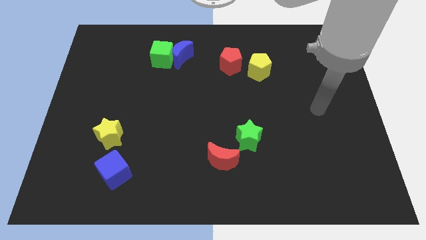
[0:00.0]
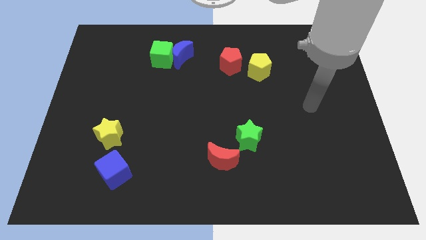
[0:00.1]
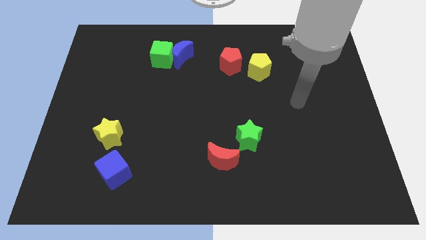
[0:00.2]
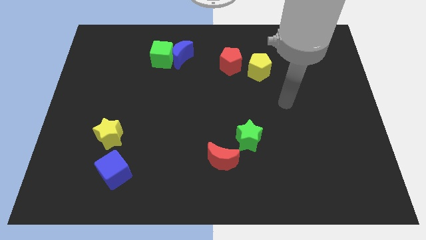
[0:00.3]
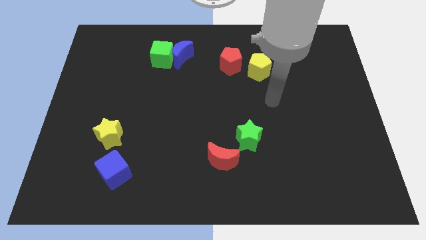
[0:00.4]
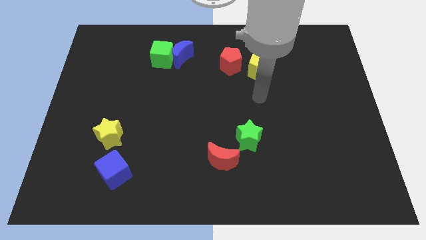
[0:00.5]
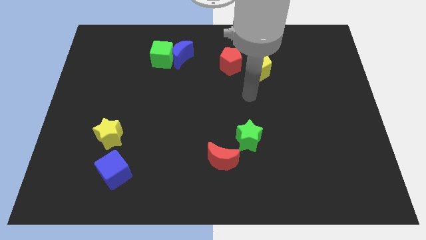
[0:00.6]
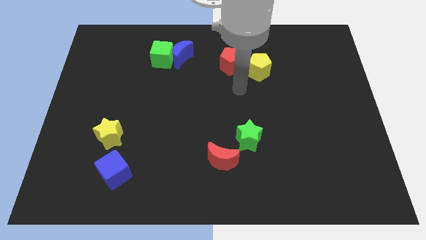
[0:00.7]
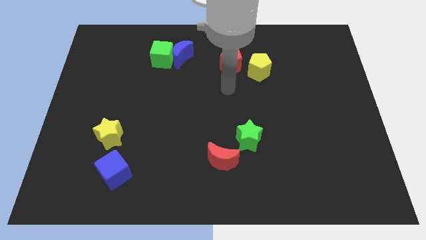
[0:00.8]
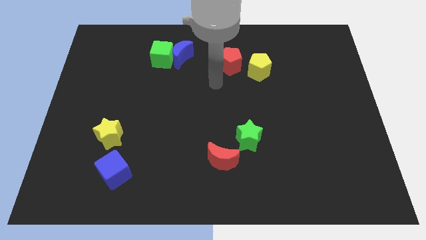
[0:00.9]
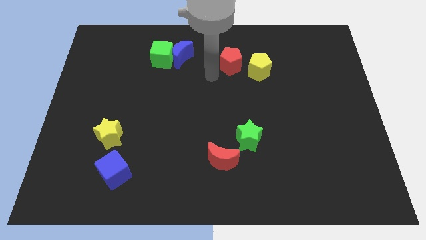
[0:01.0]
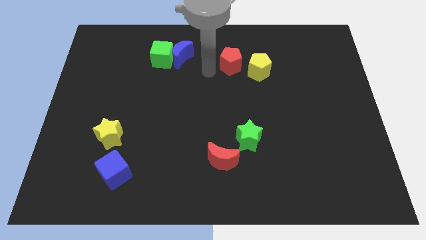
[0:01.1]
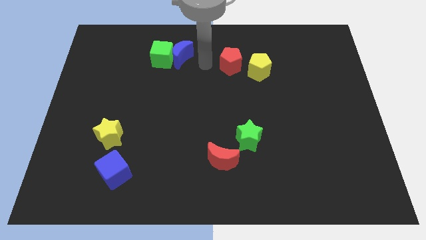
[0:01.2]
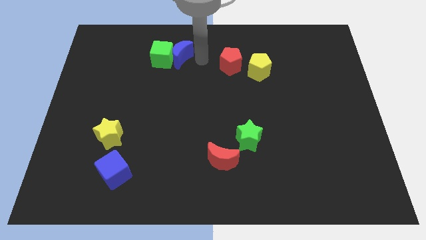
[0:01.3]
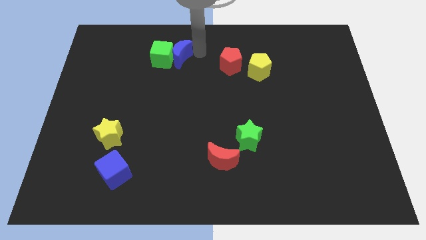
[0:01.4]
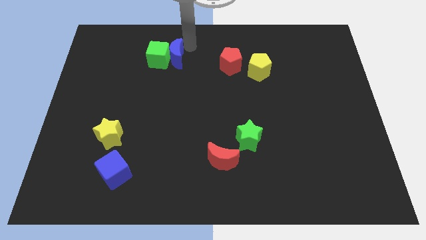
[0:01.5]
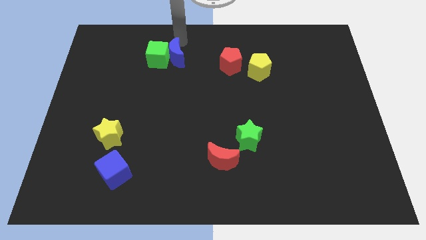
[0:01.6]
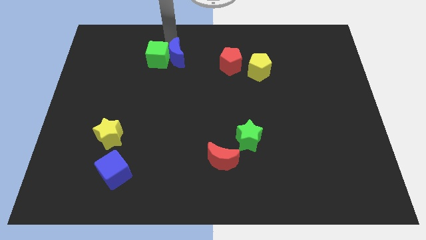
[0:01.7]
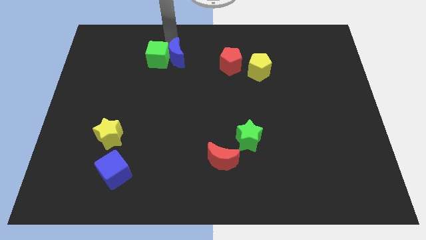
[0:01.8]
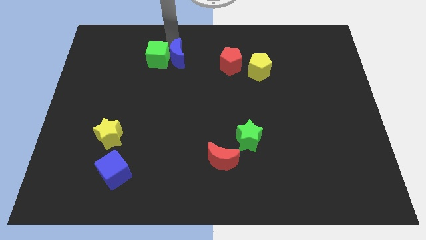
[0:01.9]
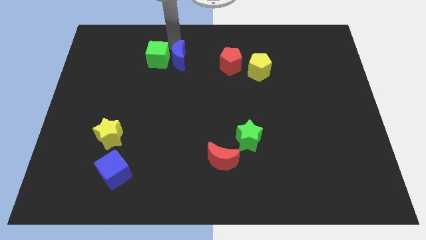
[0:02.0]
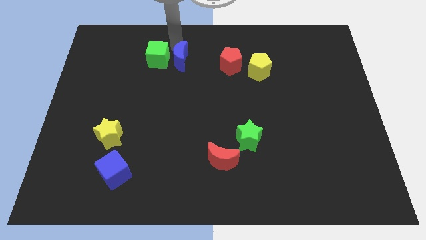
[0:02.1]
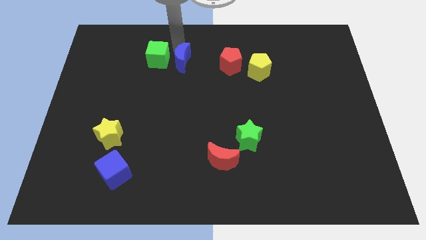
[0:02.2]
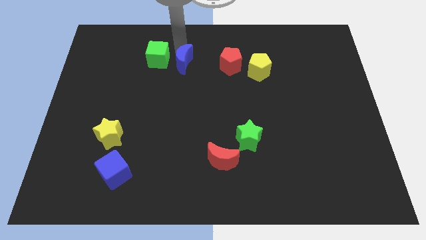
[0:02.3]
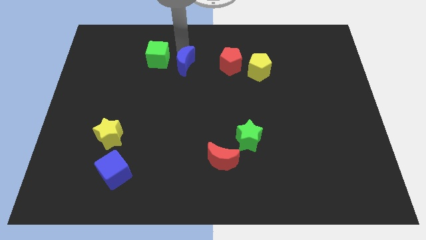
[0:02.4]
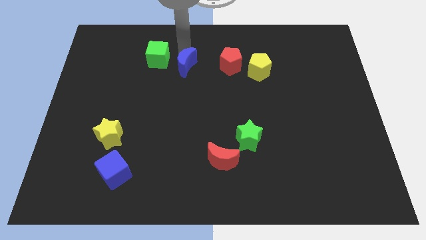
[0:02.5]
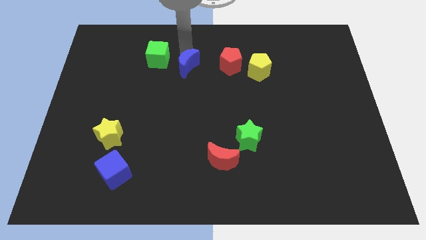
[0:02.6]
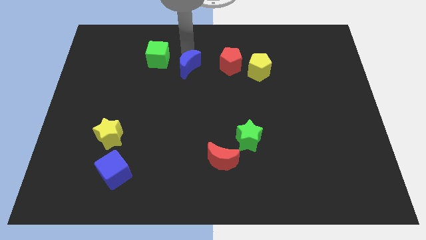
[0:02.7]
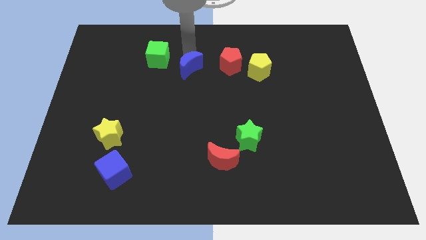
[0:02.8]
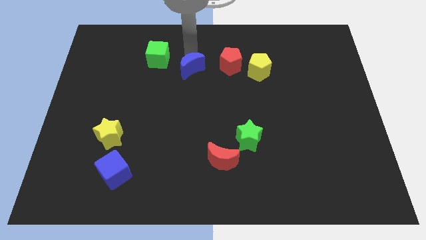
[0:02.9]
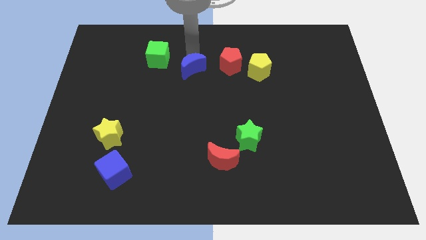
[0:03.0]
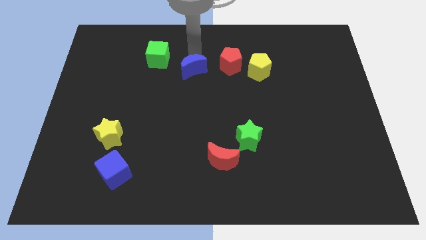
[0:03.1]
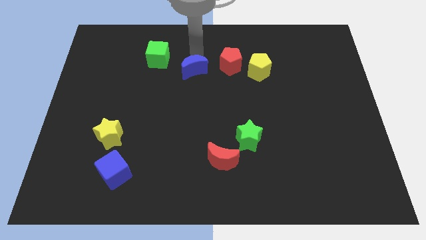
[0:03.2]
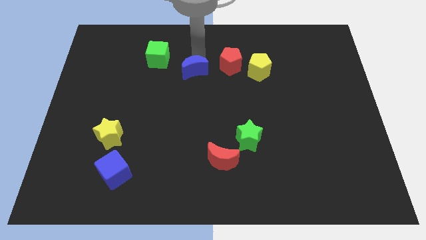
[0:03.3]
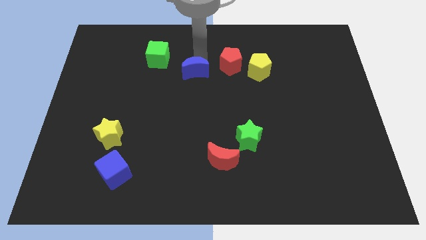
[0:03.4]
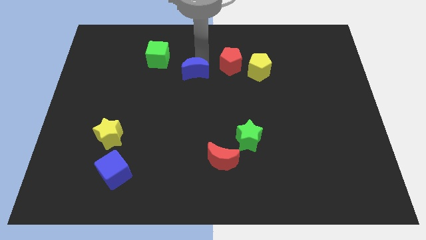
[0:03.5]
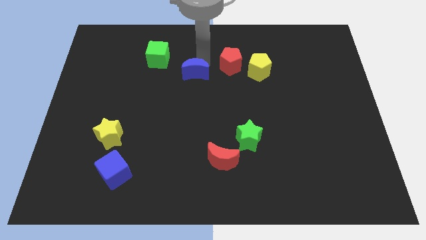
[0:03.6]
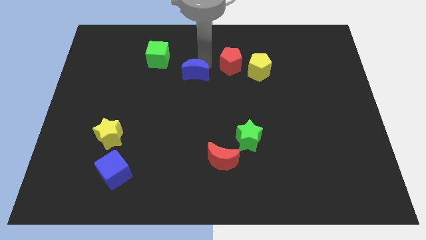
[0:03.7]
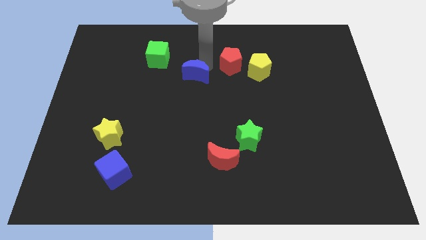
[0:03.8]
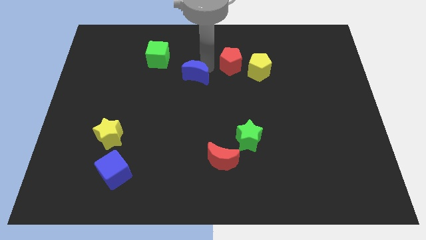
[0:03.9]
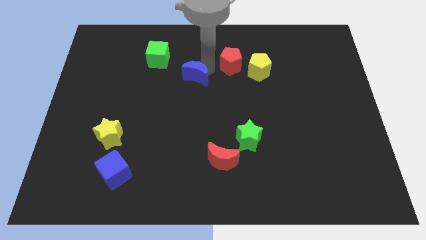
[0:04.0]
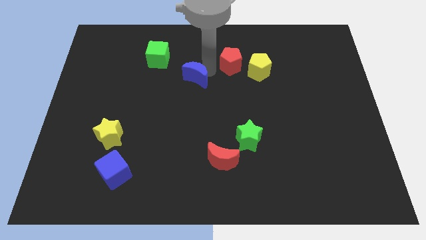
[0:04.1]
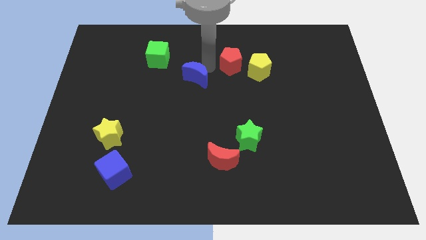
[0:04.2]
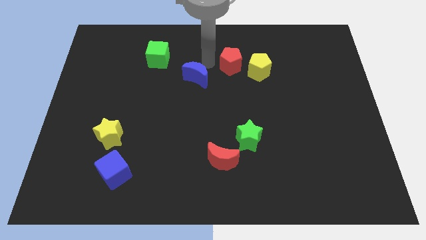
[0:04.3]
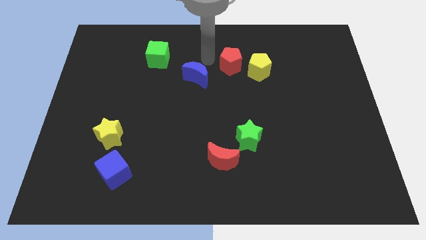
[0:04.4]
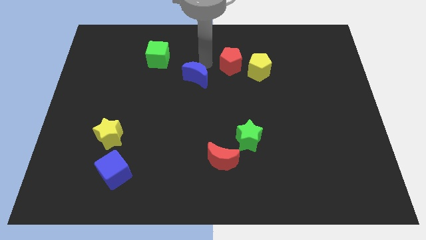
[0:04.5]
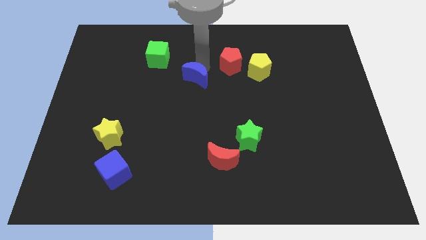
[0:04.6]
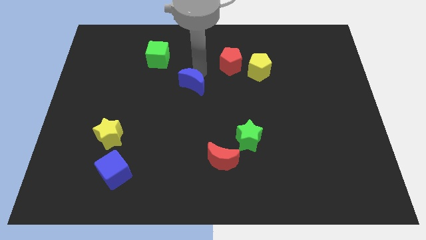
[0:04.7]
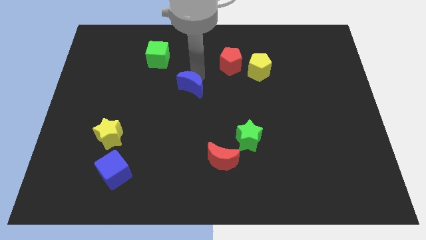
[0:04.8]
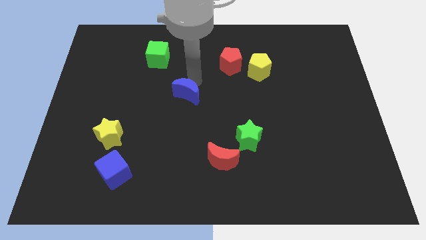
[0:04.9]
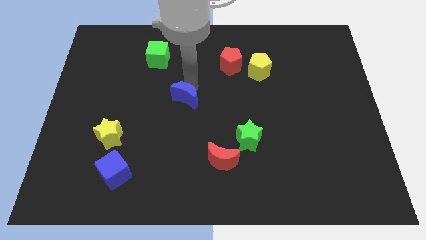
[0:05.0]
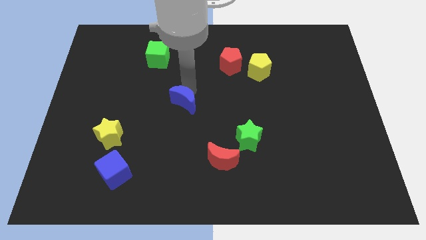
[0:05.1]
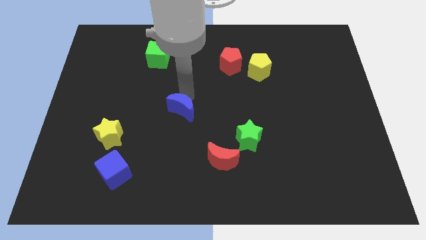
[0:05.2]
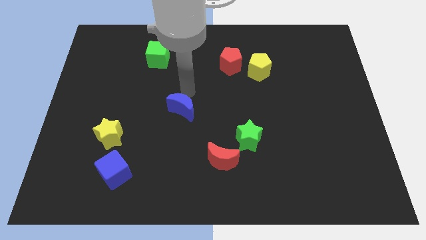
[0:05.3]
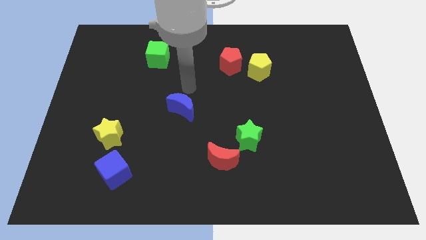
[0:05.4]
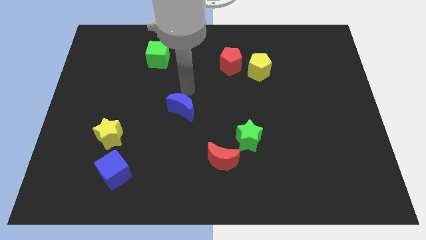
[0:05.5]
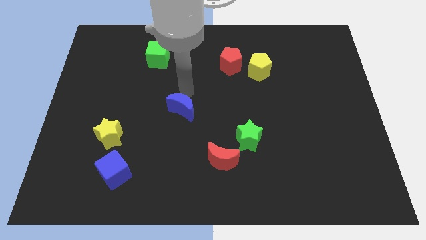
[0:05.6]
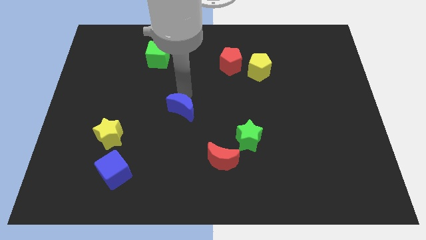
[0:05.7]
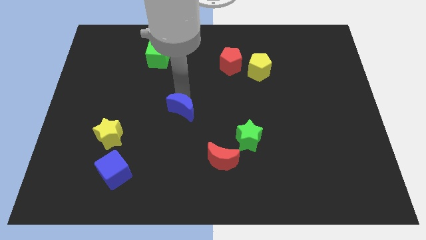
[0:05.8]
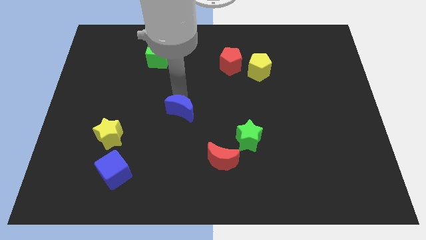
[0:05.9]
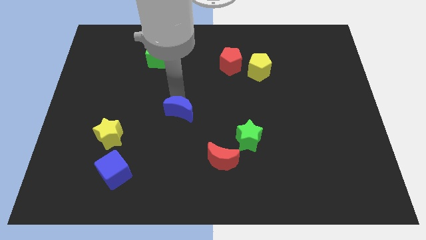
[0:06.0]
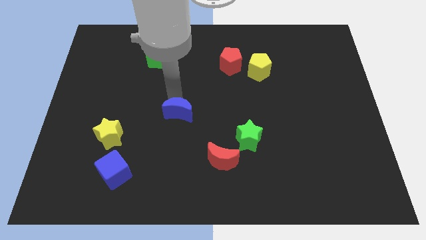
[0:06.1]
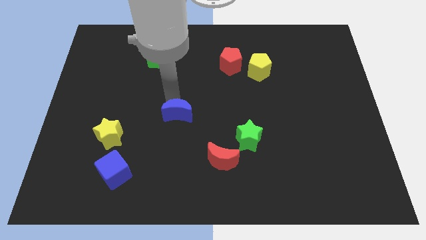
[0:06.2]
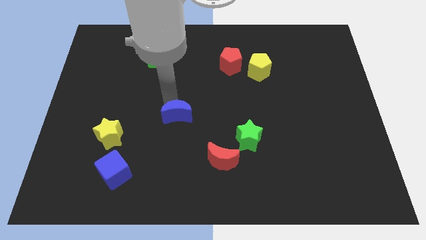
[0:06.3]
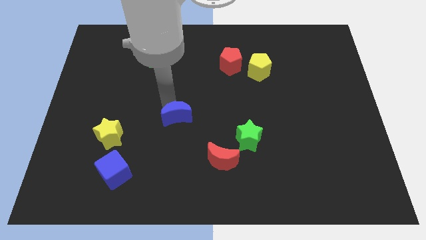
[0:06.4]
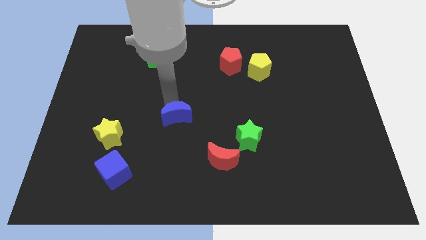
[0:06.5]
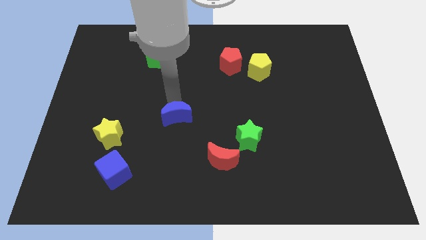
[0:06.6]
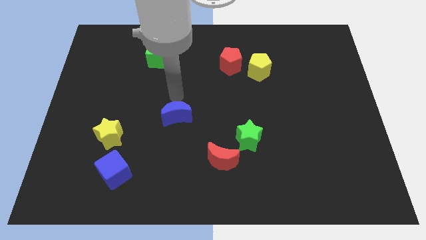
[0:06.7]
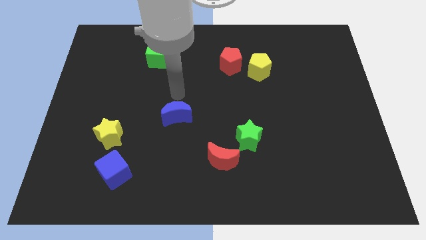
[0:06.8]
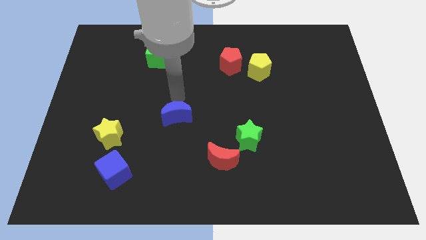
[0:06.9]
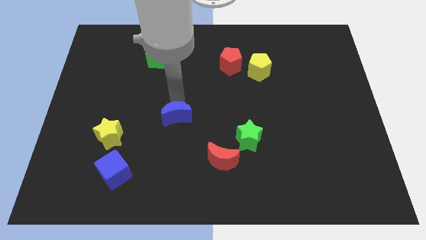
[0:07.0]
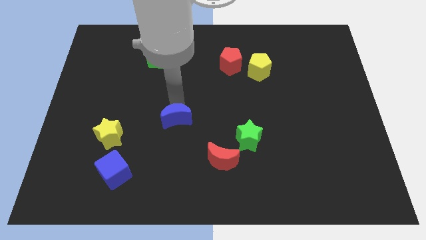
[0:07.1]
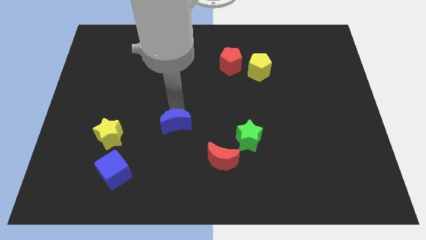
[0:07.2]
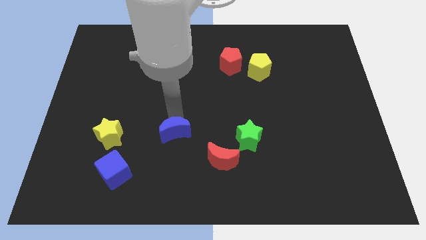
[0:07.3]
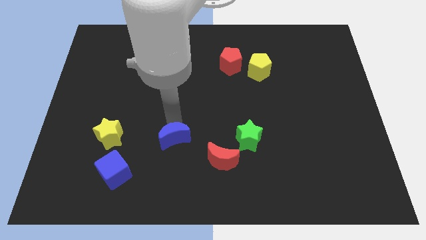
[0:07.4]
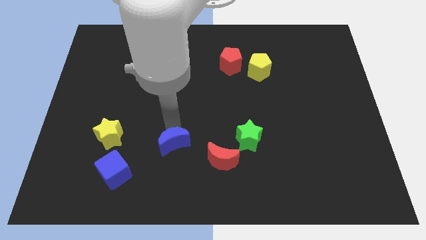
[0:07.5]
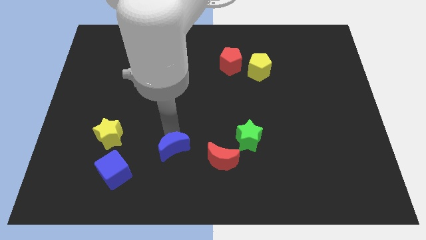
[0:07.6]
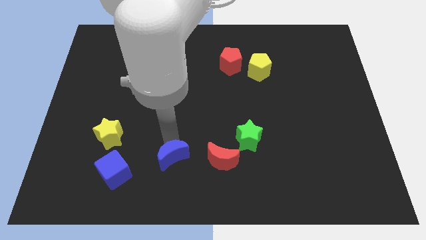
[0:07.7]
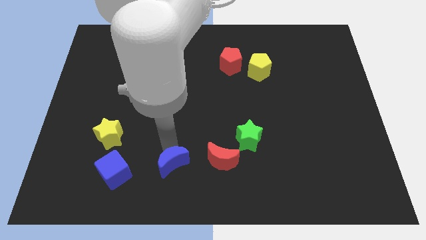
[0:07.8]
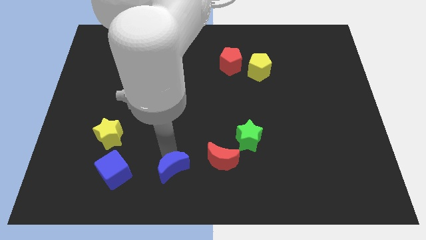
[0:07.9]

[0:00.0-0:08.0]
slide the blue moon to the bottom side
